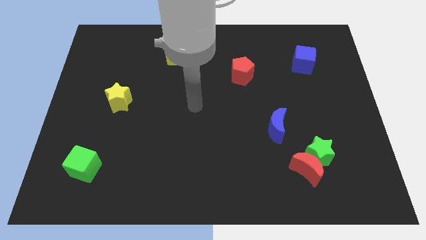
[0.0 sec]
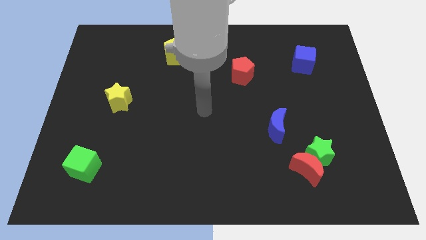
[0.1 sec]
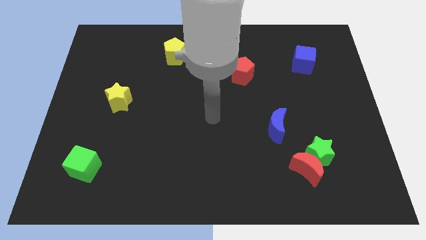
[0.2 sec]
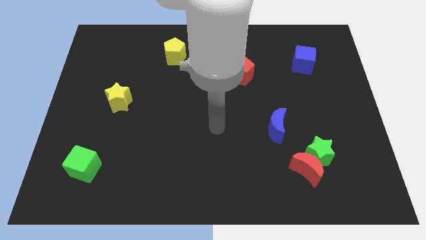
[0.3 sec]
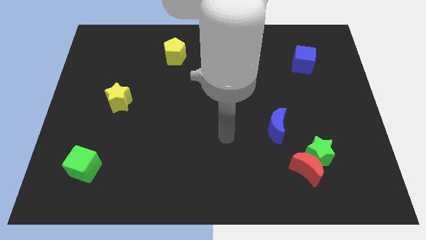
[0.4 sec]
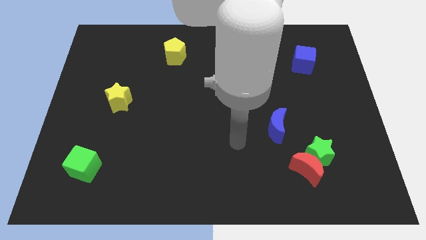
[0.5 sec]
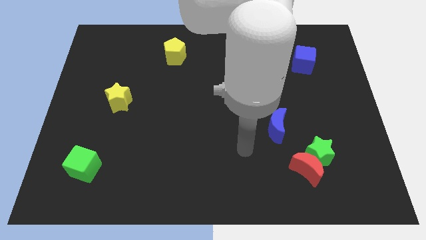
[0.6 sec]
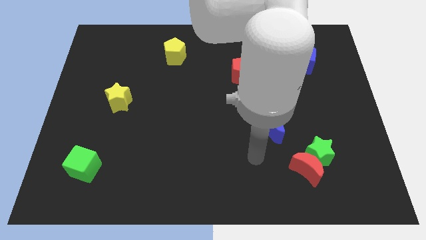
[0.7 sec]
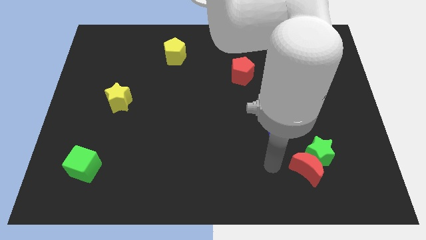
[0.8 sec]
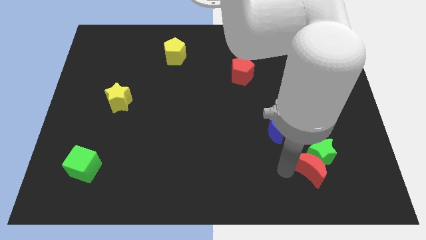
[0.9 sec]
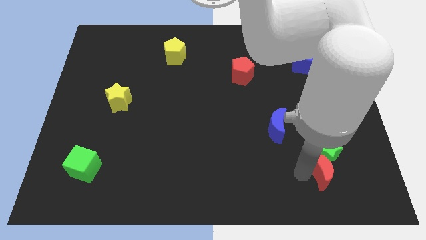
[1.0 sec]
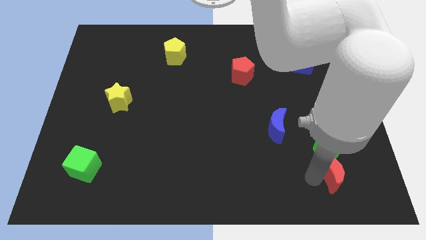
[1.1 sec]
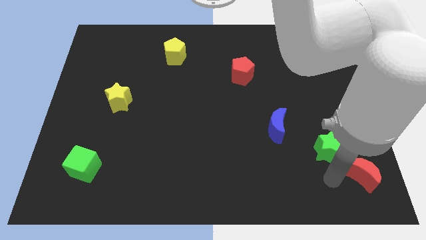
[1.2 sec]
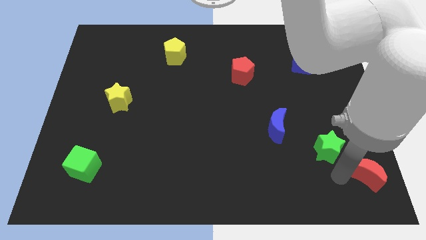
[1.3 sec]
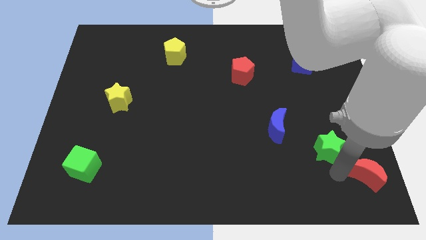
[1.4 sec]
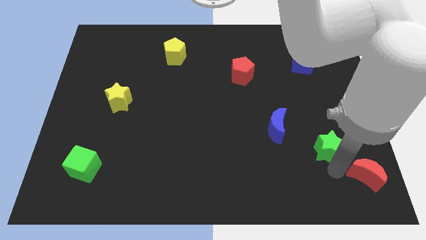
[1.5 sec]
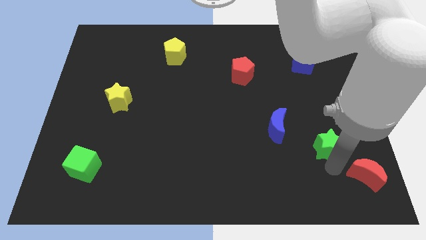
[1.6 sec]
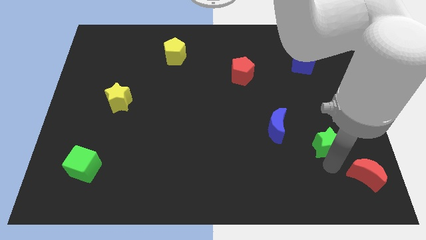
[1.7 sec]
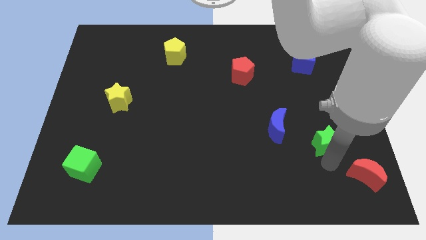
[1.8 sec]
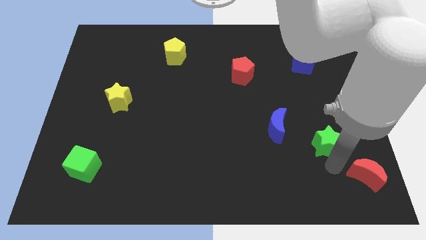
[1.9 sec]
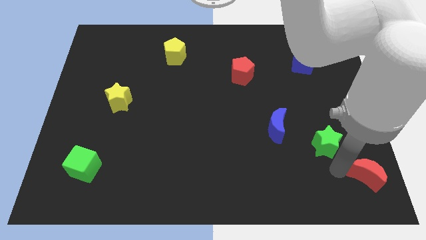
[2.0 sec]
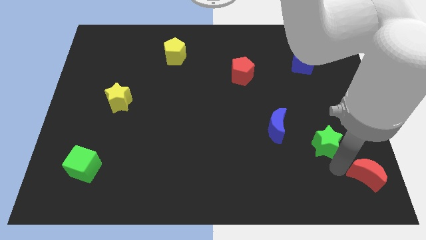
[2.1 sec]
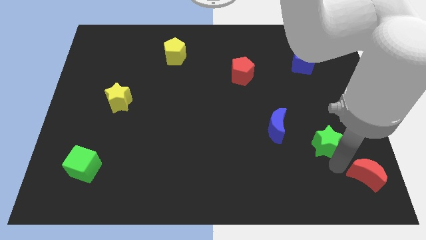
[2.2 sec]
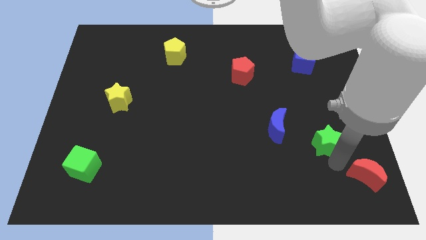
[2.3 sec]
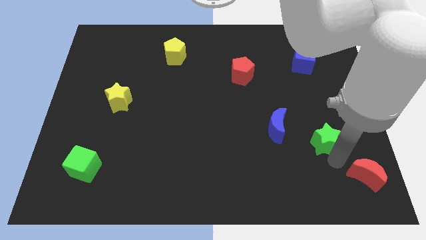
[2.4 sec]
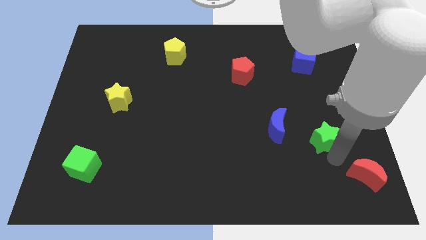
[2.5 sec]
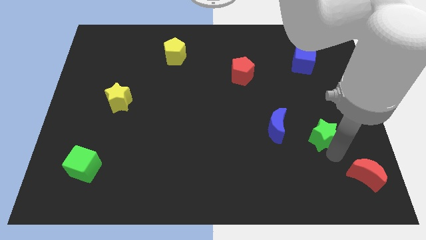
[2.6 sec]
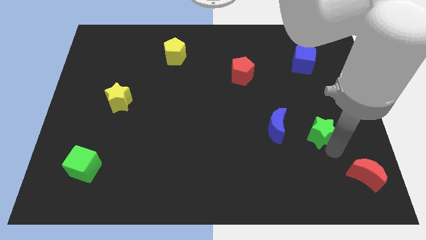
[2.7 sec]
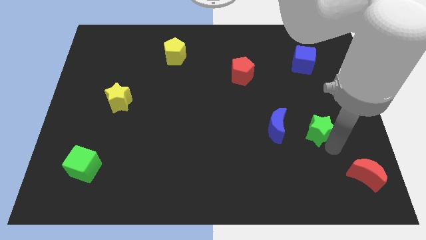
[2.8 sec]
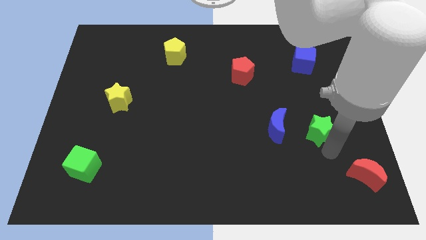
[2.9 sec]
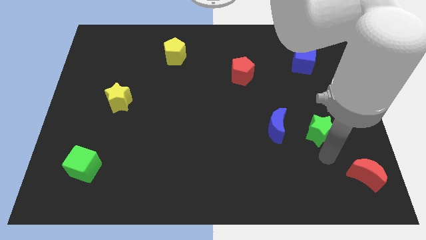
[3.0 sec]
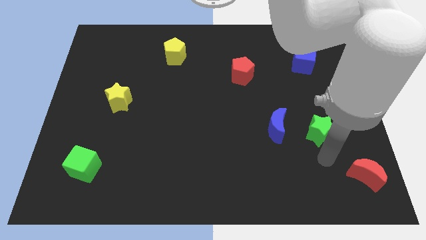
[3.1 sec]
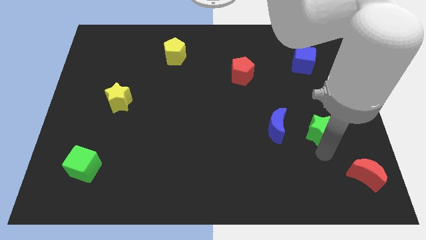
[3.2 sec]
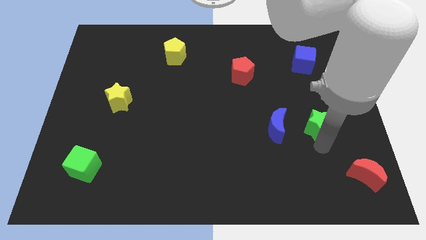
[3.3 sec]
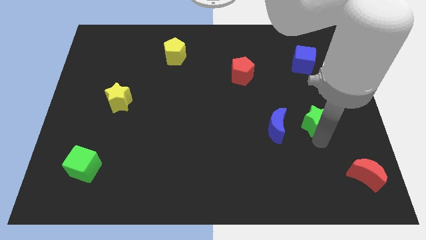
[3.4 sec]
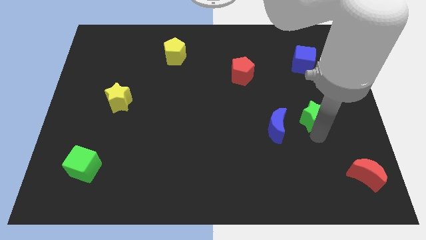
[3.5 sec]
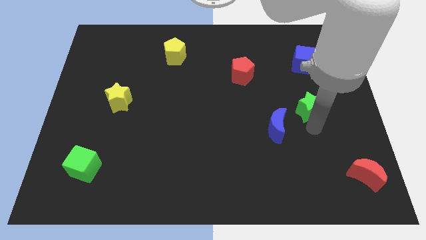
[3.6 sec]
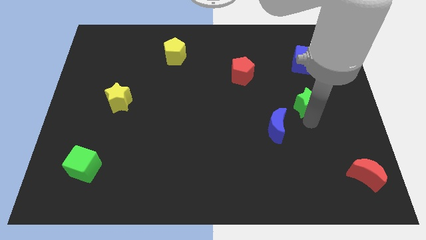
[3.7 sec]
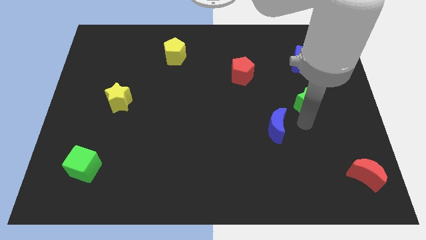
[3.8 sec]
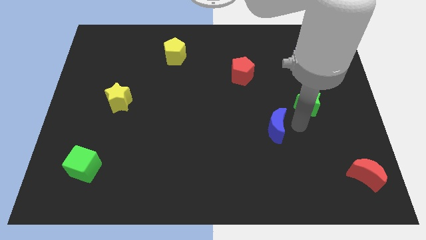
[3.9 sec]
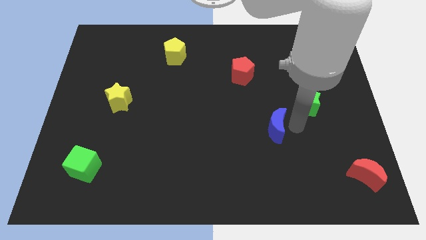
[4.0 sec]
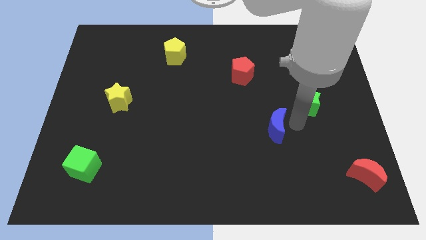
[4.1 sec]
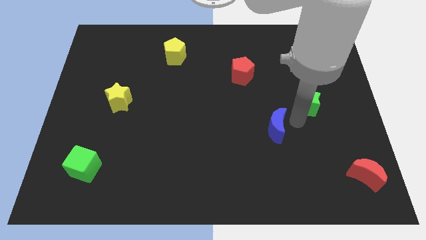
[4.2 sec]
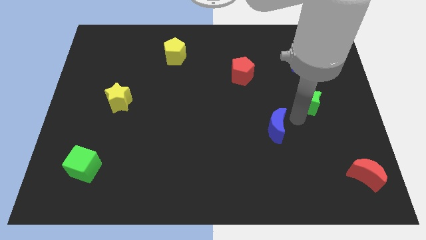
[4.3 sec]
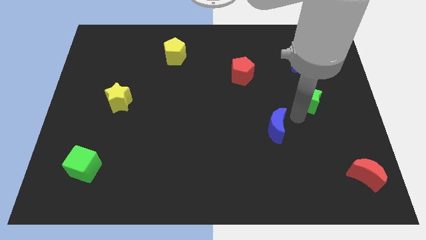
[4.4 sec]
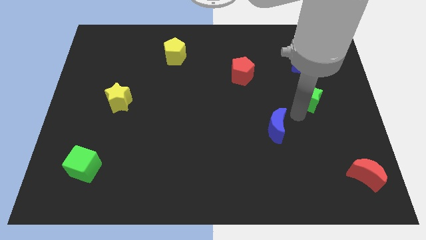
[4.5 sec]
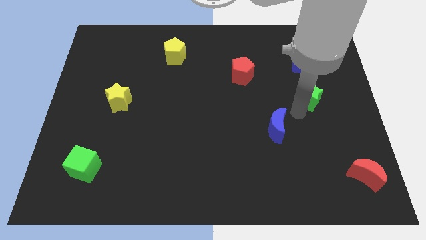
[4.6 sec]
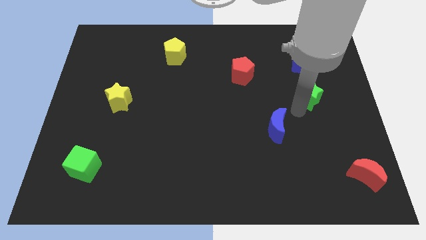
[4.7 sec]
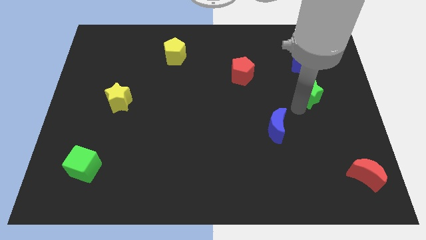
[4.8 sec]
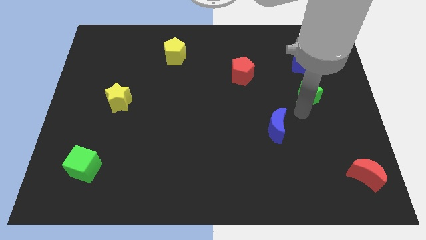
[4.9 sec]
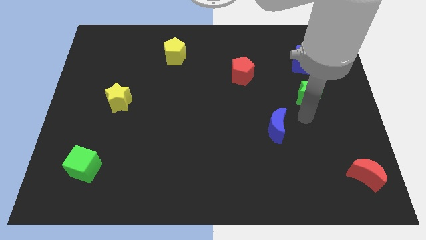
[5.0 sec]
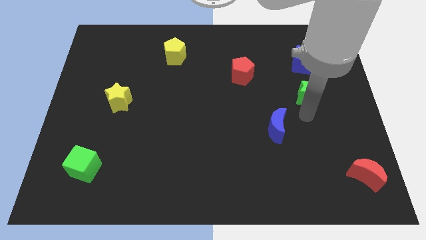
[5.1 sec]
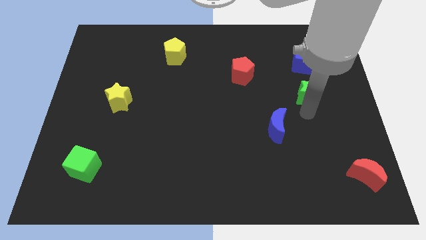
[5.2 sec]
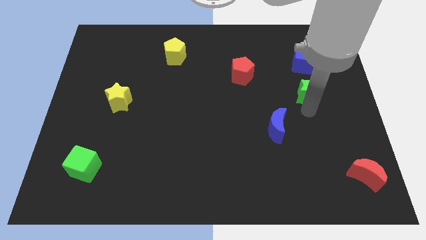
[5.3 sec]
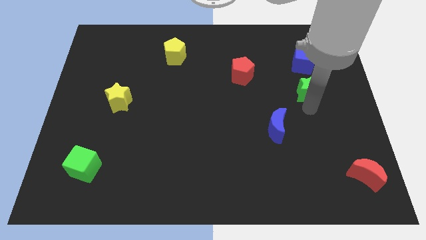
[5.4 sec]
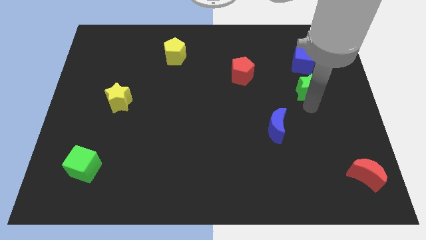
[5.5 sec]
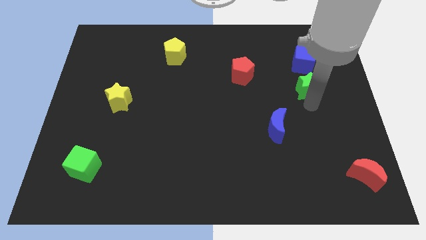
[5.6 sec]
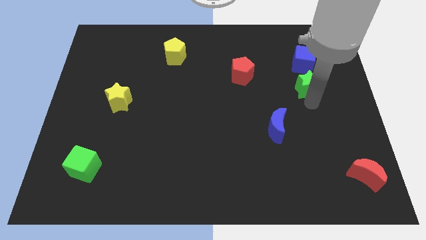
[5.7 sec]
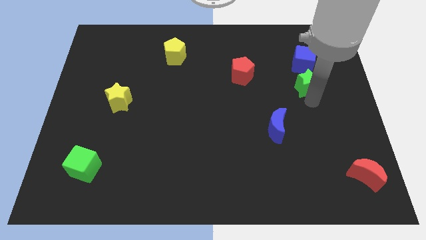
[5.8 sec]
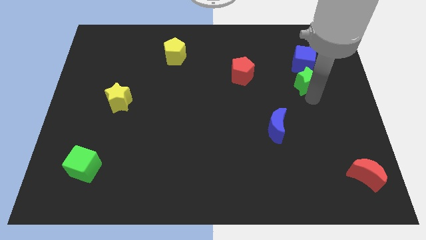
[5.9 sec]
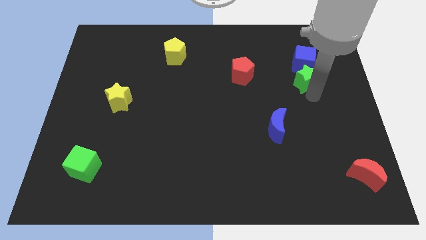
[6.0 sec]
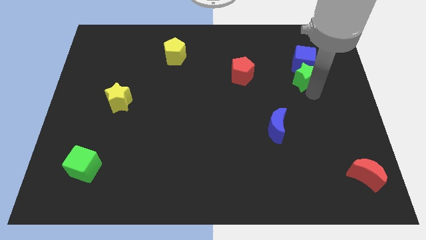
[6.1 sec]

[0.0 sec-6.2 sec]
push the green star to the blue cube

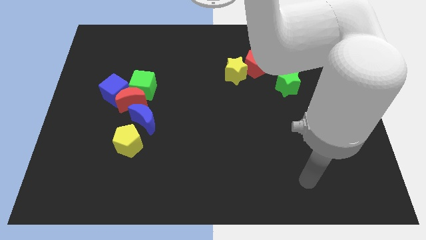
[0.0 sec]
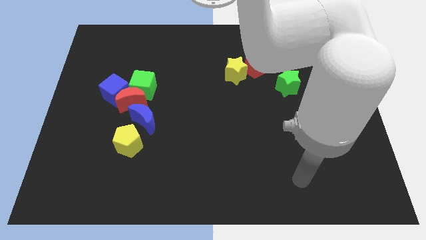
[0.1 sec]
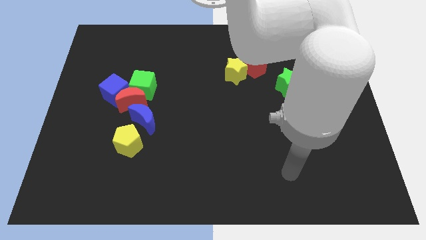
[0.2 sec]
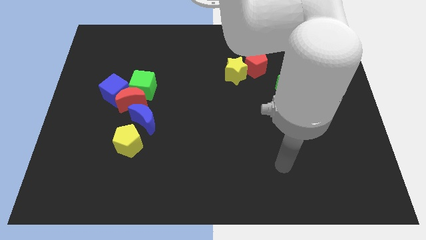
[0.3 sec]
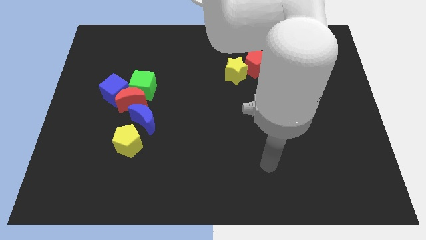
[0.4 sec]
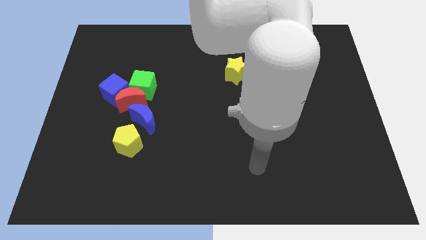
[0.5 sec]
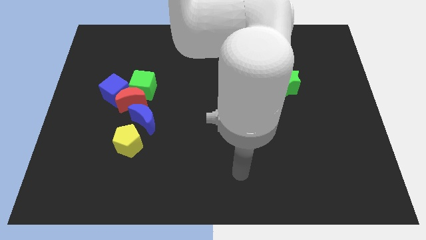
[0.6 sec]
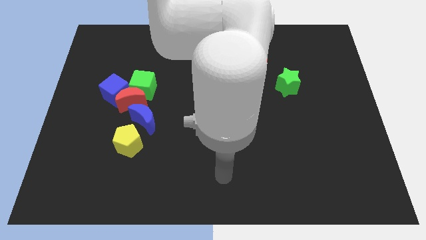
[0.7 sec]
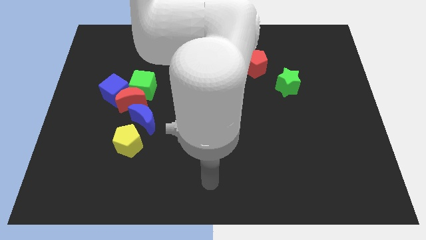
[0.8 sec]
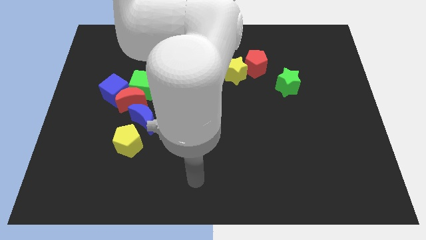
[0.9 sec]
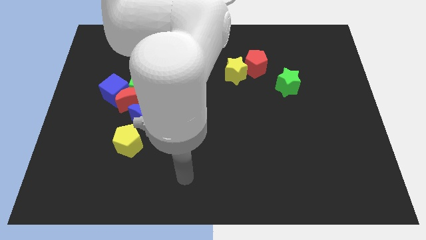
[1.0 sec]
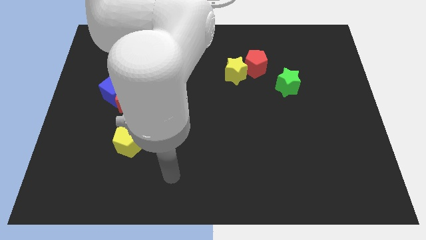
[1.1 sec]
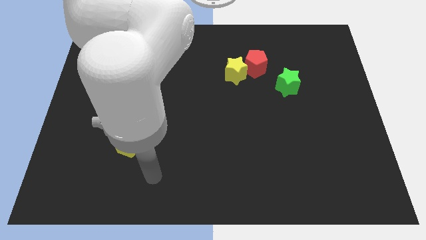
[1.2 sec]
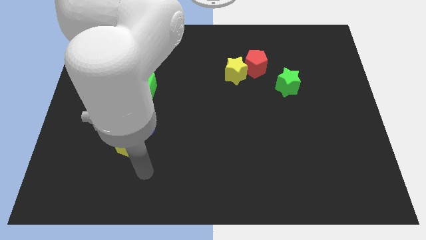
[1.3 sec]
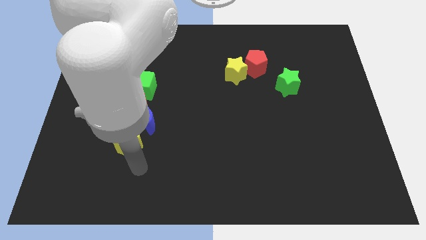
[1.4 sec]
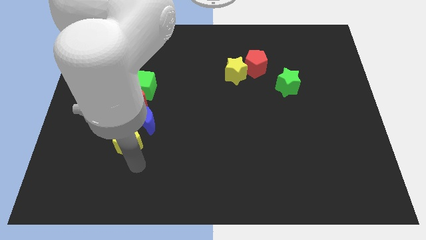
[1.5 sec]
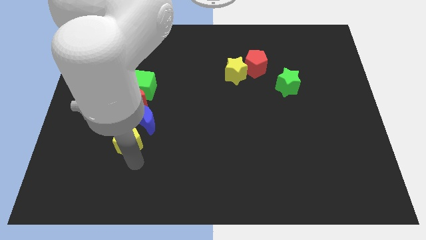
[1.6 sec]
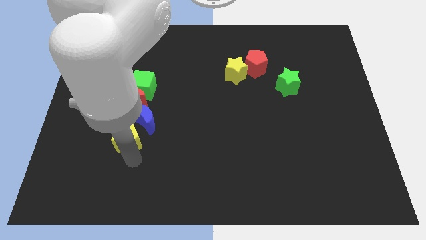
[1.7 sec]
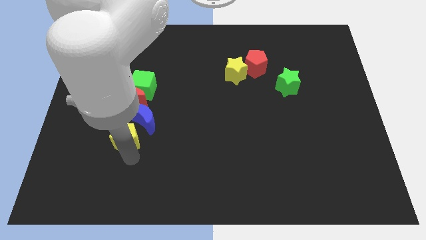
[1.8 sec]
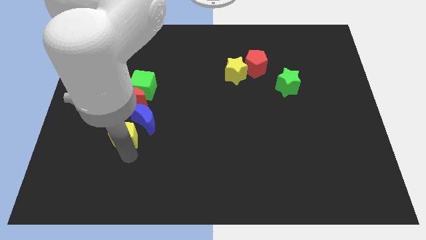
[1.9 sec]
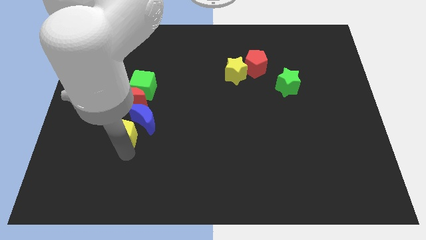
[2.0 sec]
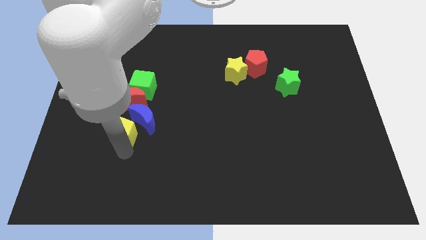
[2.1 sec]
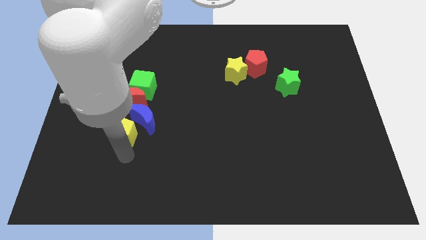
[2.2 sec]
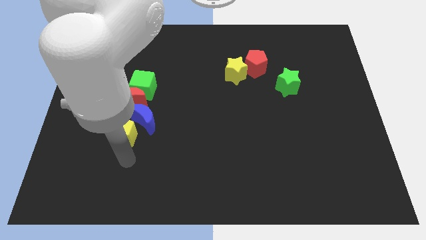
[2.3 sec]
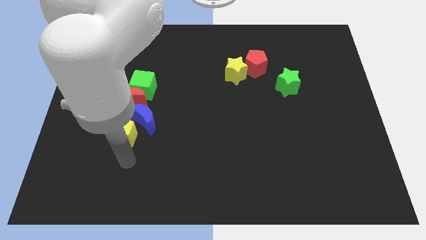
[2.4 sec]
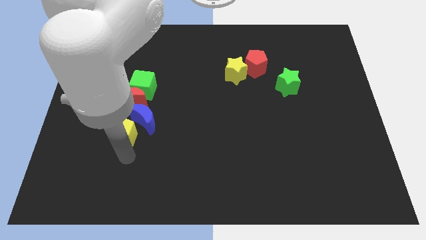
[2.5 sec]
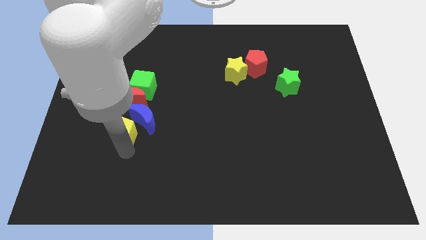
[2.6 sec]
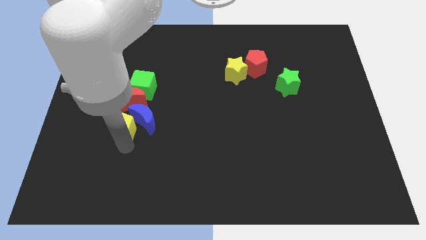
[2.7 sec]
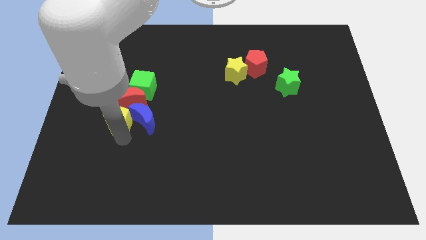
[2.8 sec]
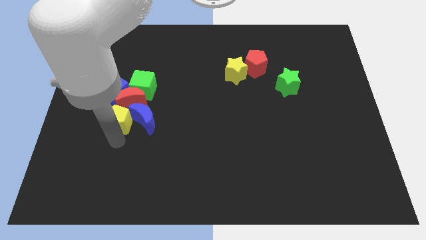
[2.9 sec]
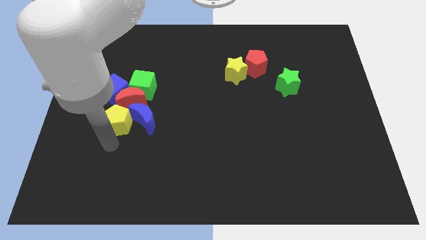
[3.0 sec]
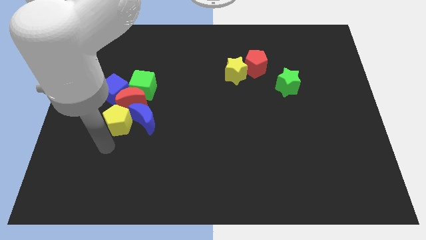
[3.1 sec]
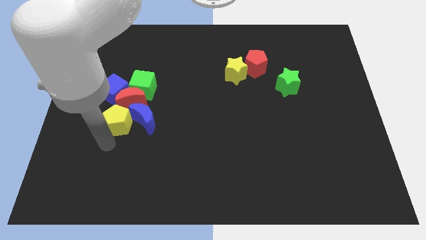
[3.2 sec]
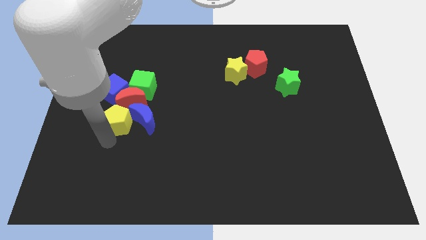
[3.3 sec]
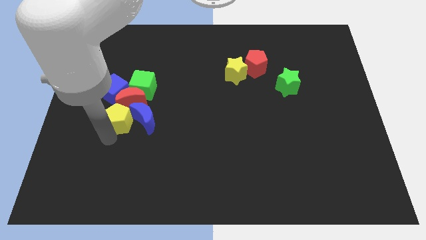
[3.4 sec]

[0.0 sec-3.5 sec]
push the yellow pentagon towards the red moon
